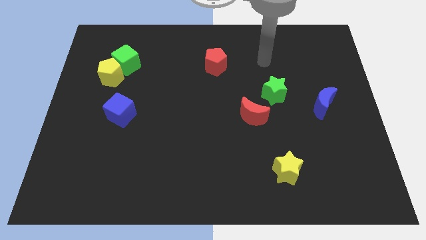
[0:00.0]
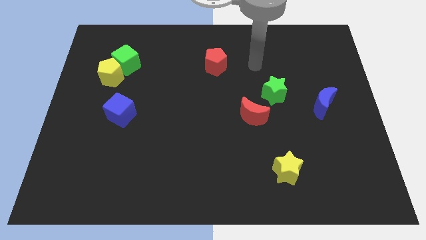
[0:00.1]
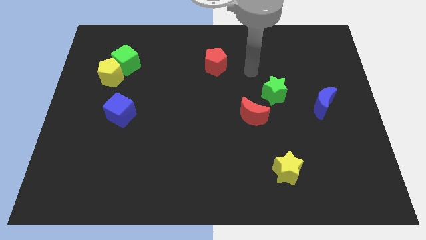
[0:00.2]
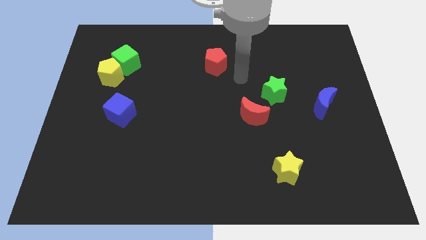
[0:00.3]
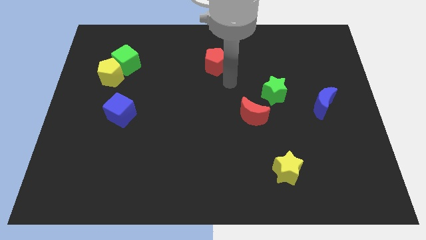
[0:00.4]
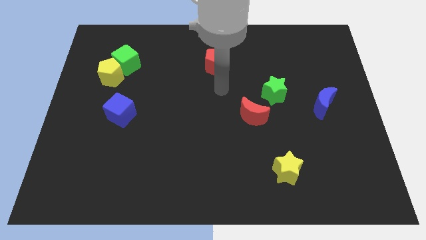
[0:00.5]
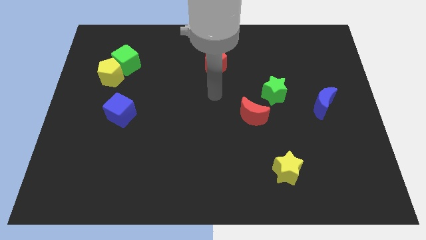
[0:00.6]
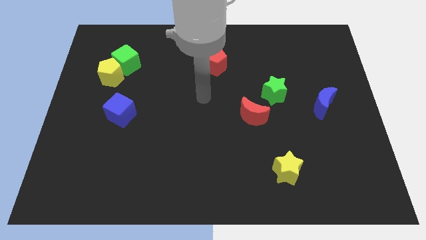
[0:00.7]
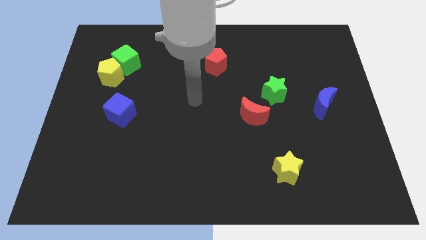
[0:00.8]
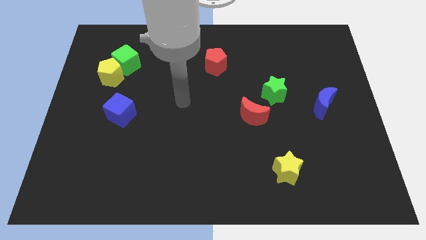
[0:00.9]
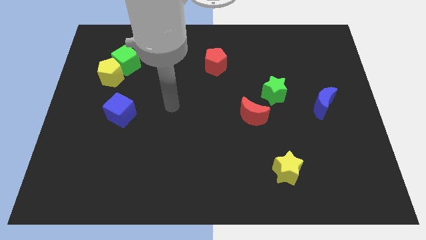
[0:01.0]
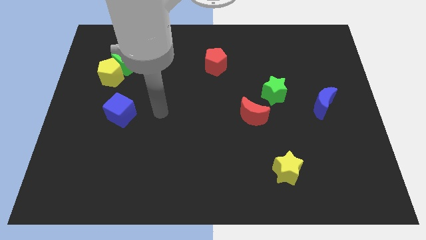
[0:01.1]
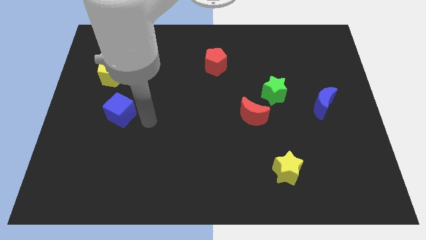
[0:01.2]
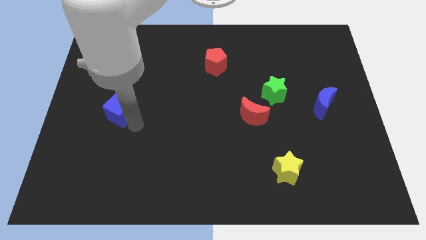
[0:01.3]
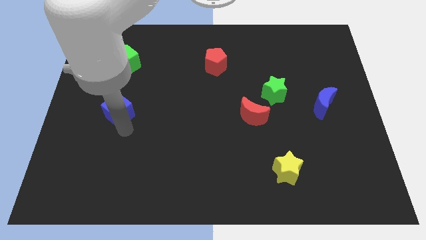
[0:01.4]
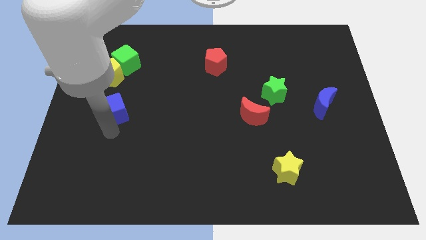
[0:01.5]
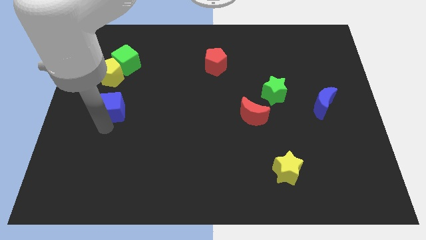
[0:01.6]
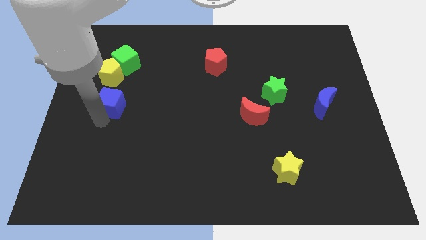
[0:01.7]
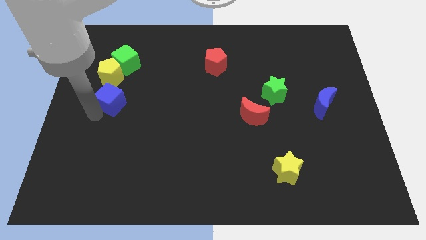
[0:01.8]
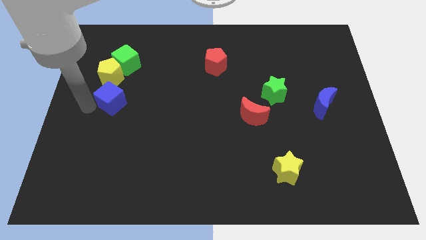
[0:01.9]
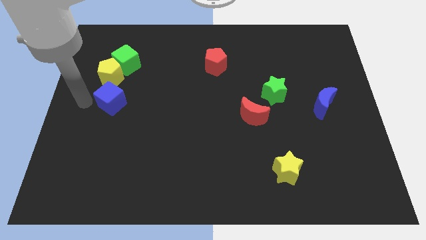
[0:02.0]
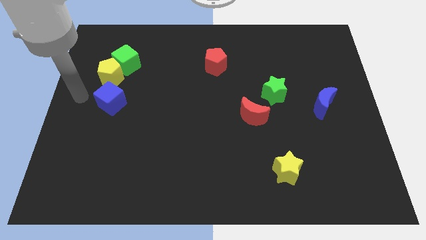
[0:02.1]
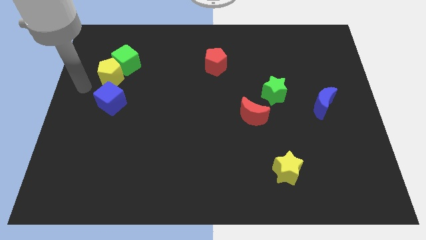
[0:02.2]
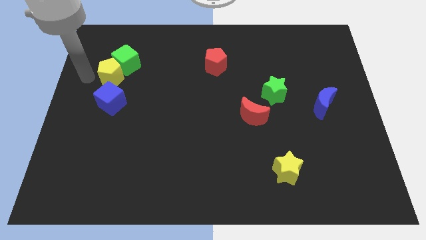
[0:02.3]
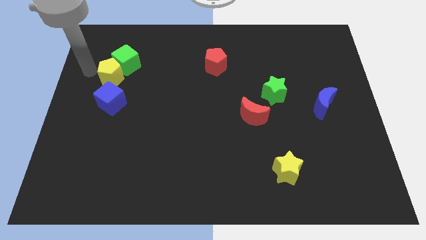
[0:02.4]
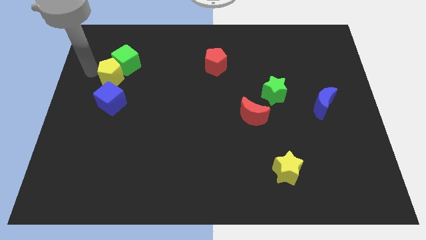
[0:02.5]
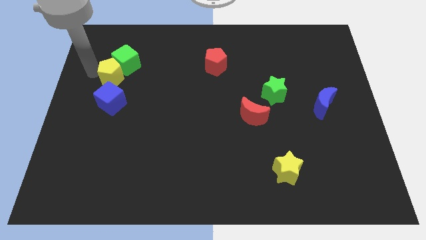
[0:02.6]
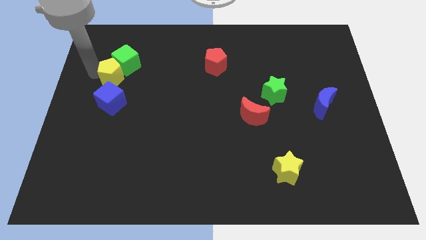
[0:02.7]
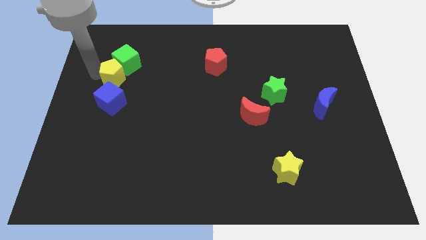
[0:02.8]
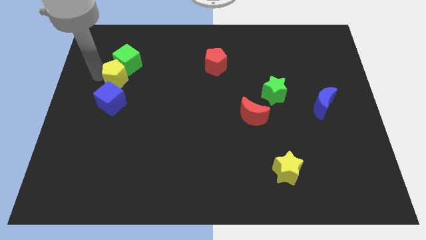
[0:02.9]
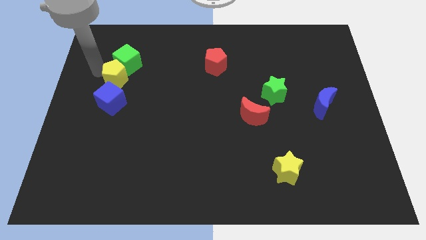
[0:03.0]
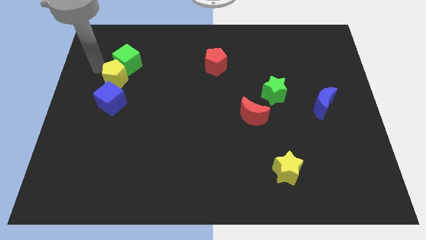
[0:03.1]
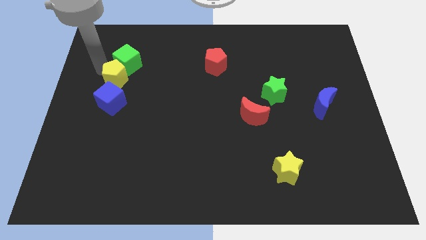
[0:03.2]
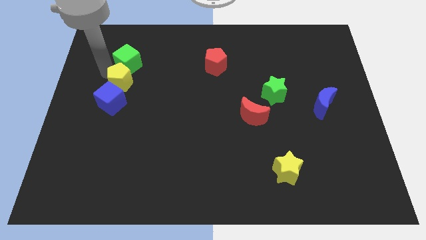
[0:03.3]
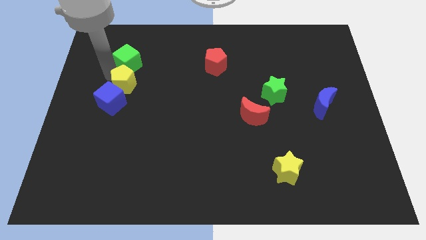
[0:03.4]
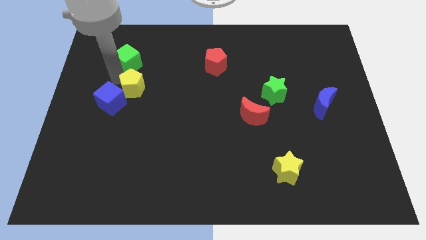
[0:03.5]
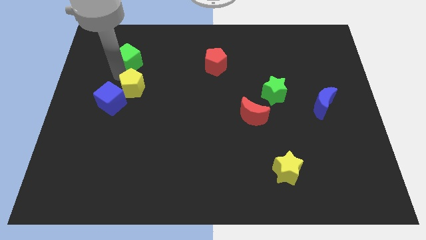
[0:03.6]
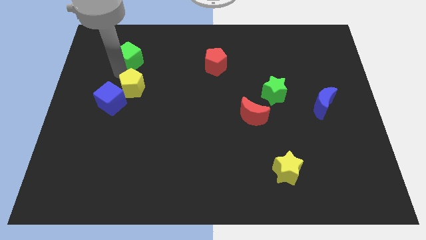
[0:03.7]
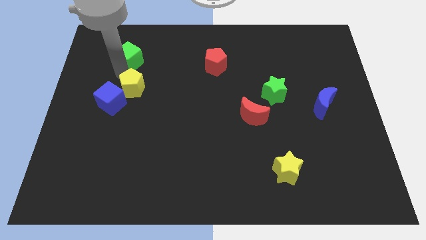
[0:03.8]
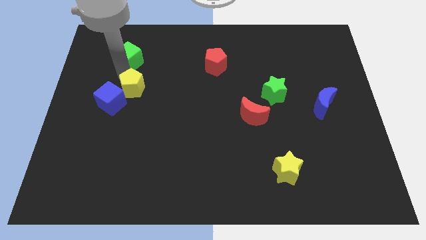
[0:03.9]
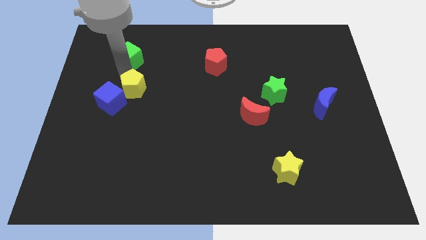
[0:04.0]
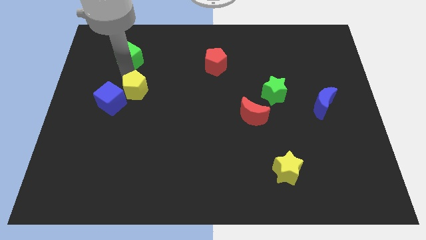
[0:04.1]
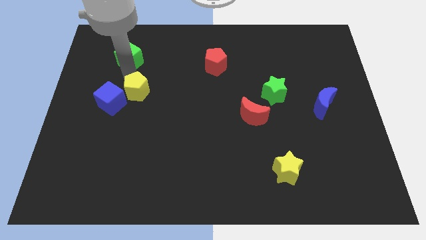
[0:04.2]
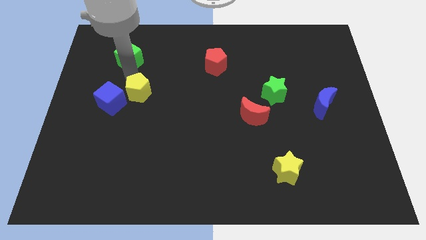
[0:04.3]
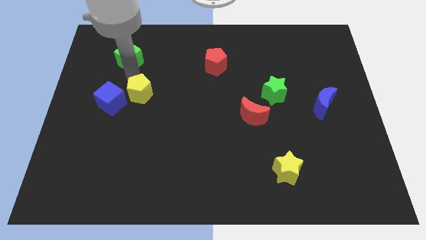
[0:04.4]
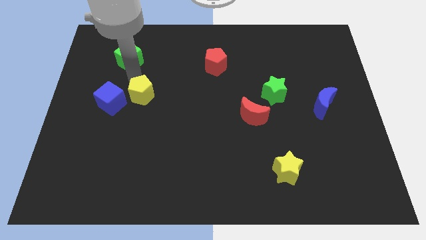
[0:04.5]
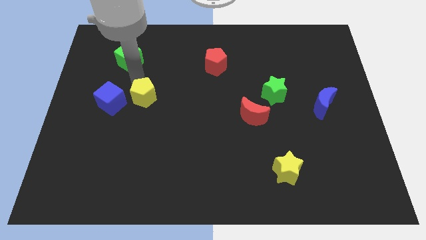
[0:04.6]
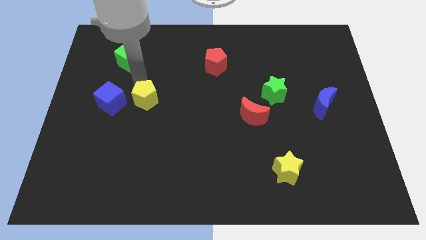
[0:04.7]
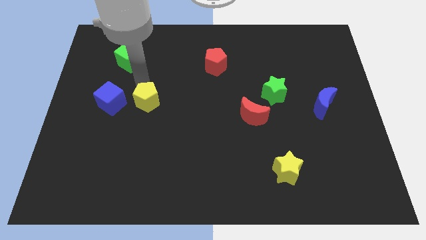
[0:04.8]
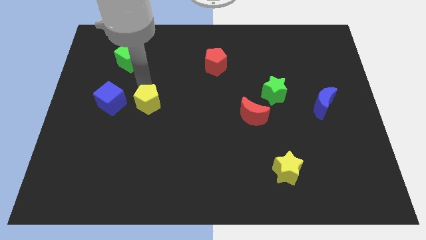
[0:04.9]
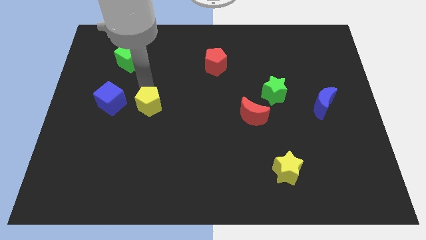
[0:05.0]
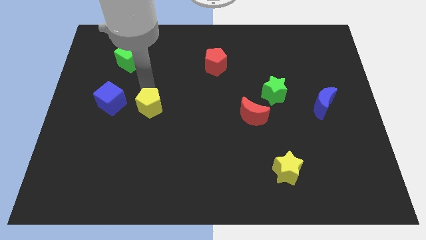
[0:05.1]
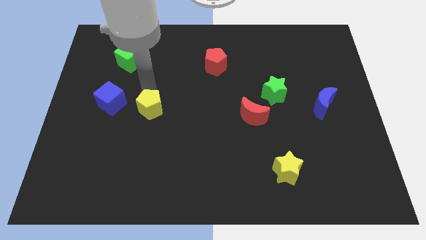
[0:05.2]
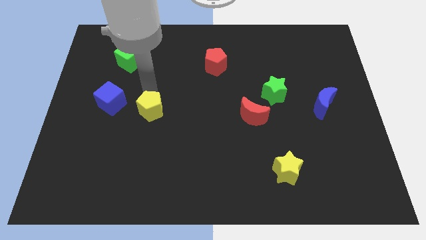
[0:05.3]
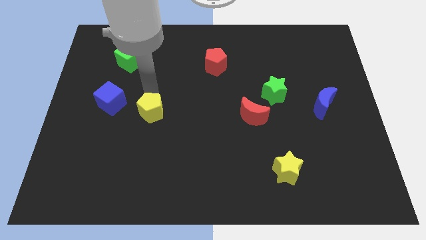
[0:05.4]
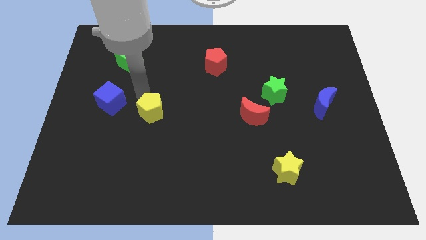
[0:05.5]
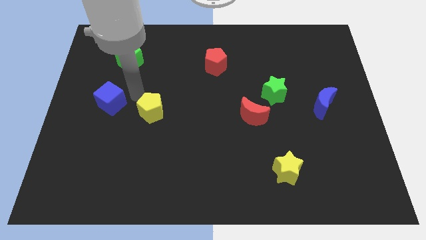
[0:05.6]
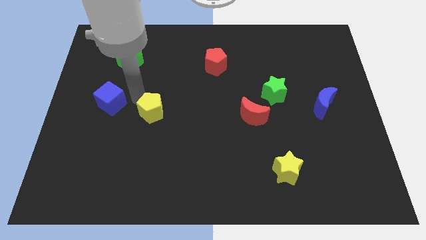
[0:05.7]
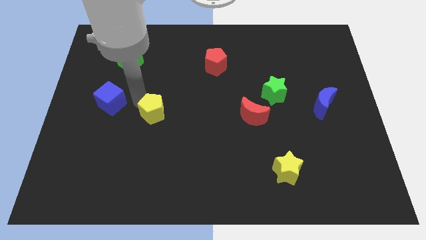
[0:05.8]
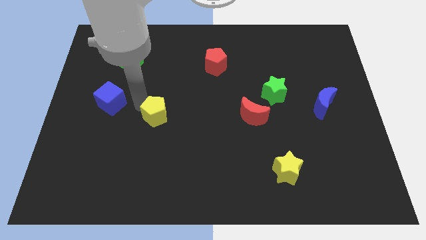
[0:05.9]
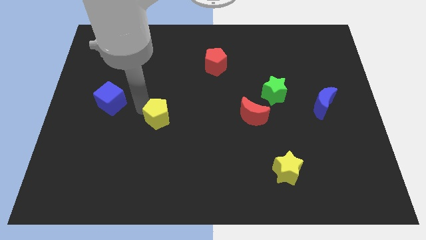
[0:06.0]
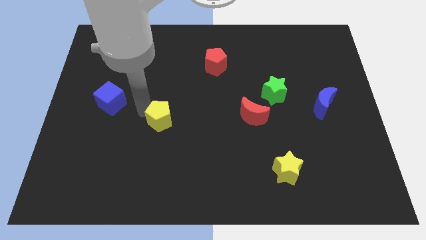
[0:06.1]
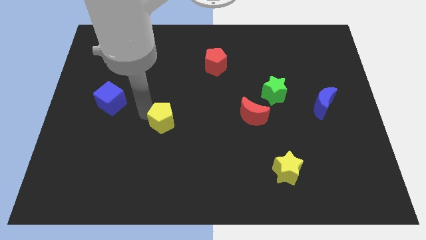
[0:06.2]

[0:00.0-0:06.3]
move the yellow pentagon downwards and then right

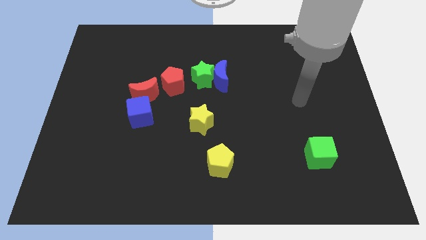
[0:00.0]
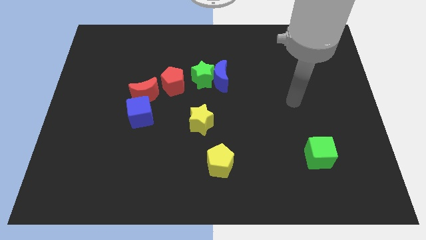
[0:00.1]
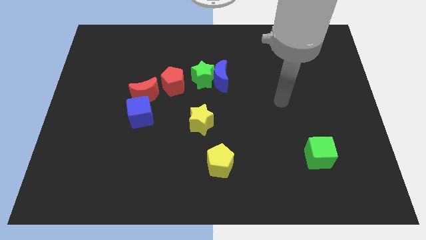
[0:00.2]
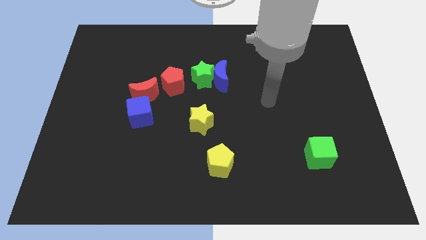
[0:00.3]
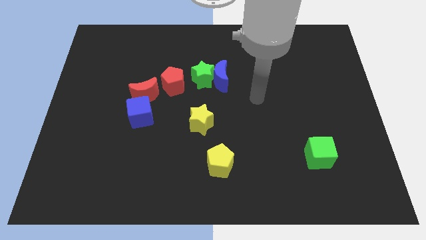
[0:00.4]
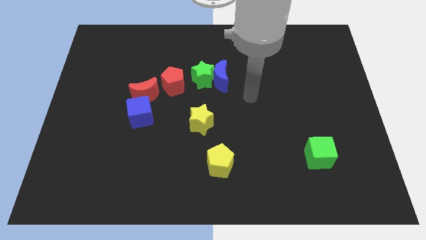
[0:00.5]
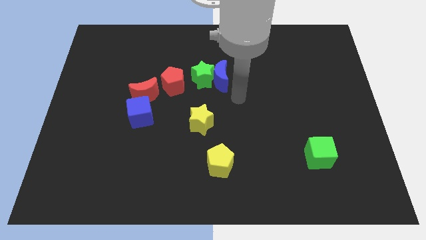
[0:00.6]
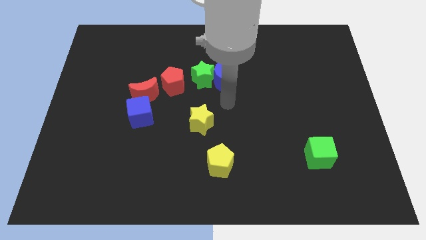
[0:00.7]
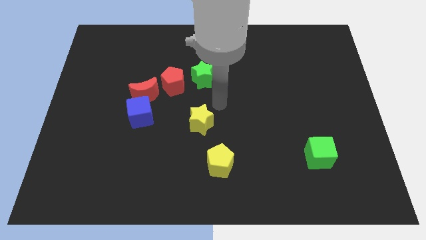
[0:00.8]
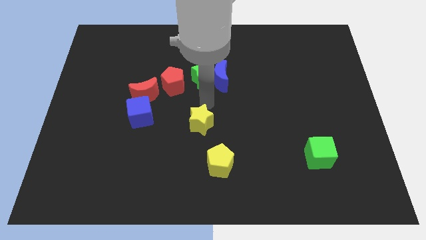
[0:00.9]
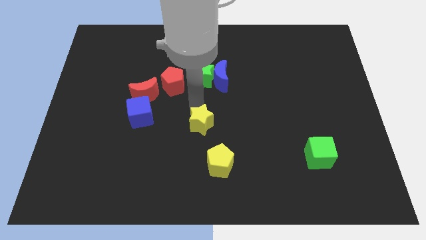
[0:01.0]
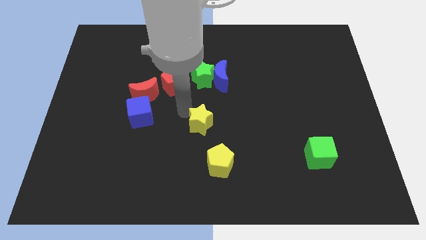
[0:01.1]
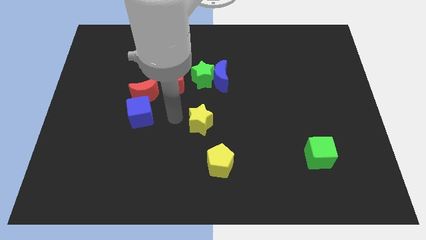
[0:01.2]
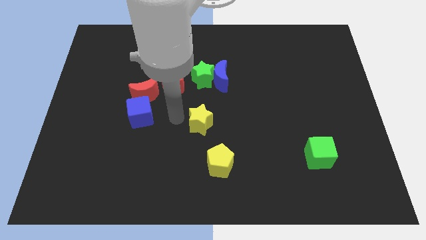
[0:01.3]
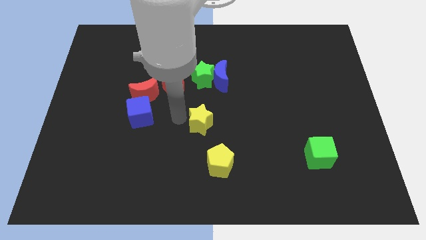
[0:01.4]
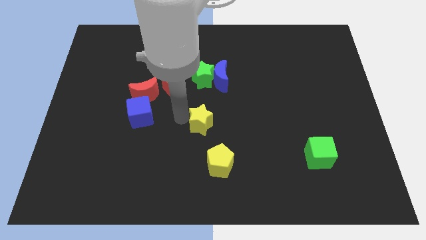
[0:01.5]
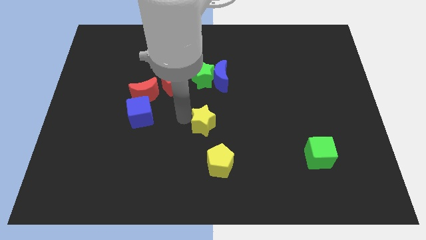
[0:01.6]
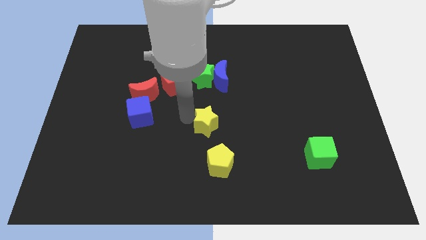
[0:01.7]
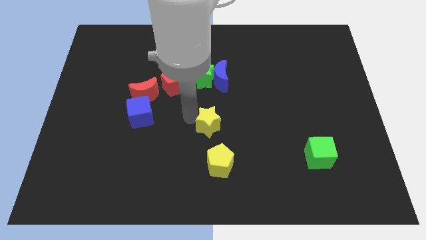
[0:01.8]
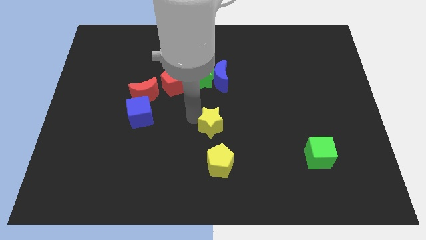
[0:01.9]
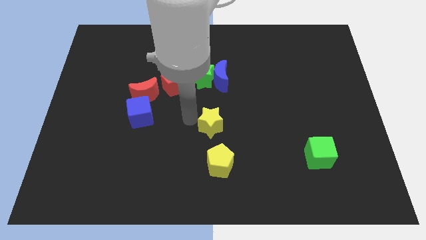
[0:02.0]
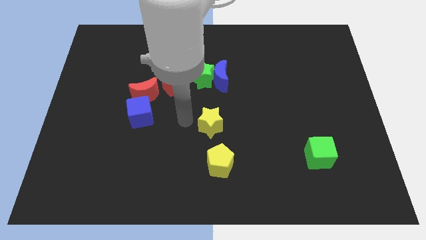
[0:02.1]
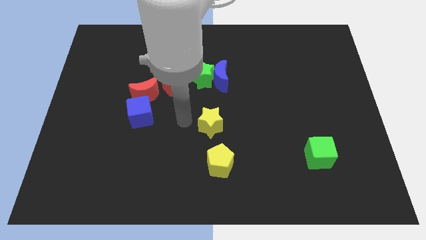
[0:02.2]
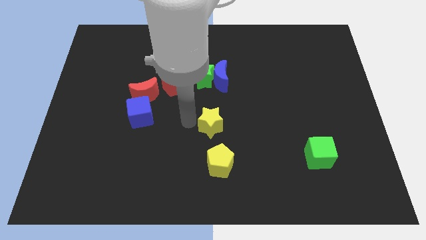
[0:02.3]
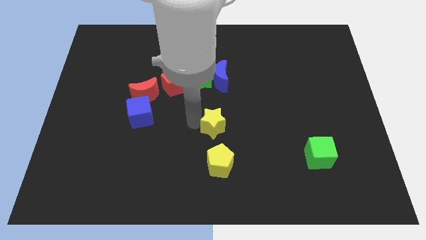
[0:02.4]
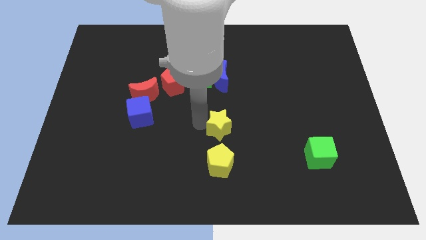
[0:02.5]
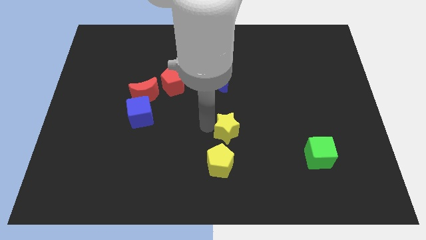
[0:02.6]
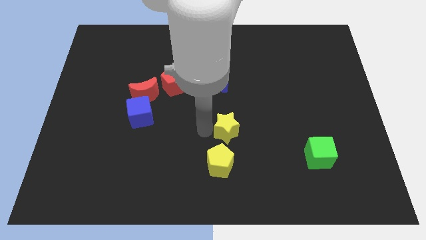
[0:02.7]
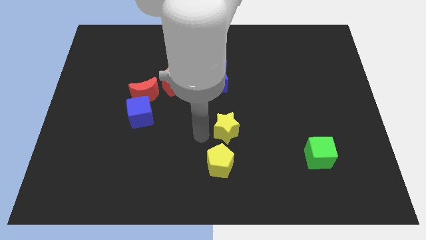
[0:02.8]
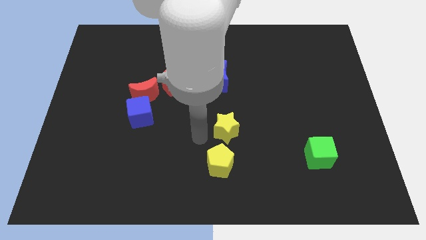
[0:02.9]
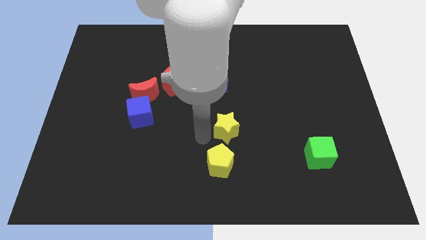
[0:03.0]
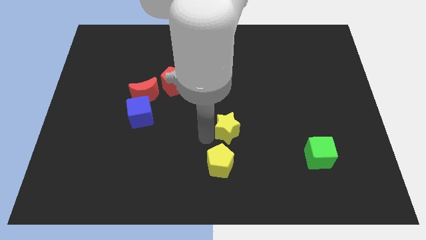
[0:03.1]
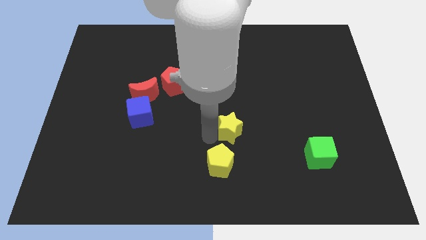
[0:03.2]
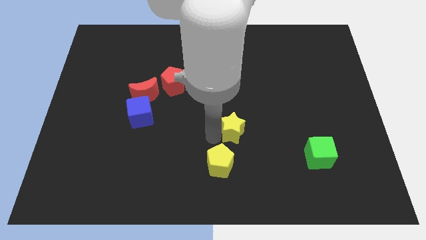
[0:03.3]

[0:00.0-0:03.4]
slide the yellow star a little to the right
